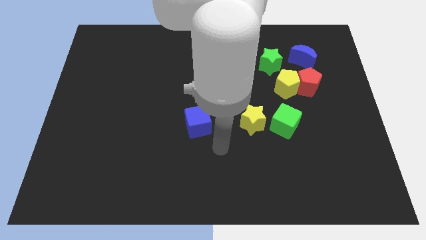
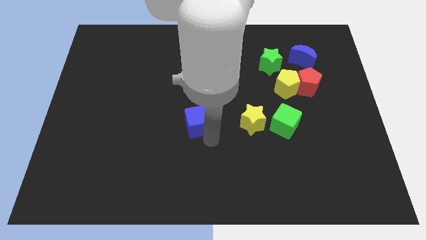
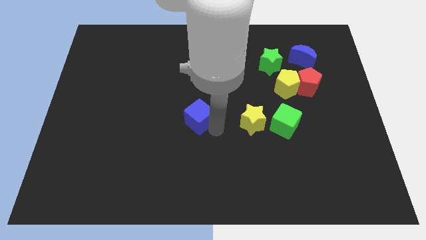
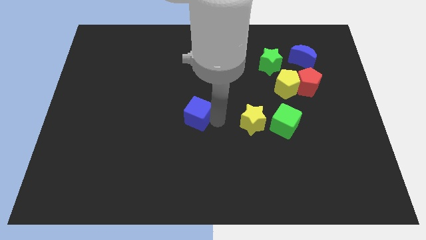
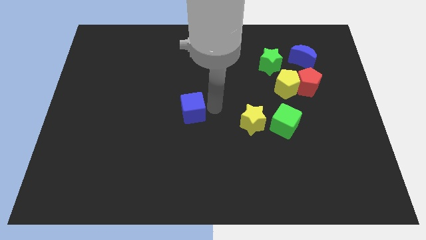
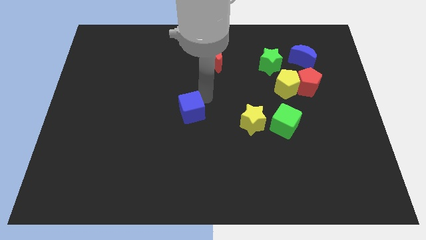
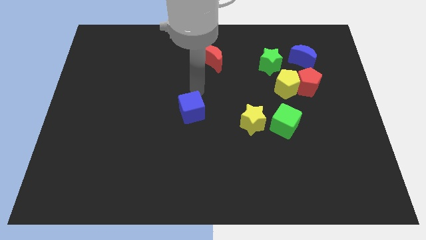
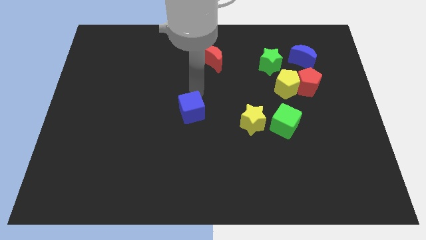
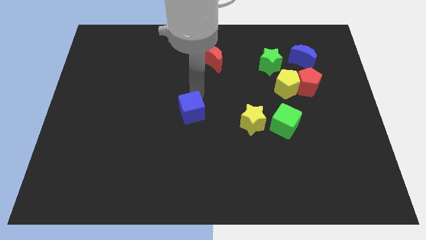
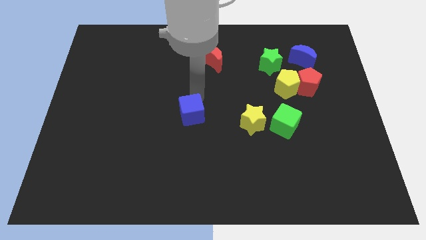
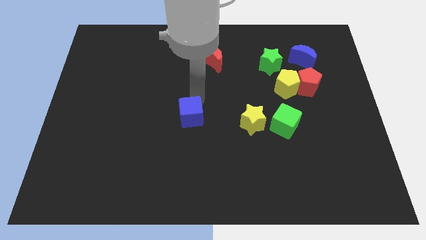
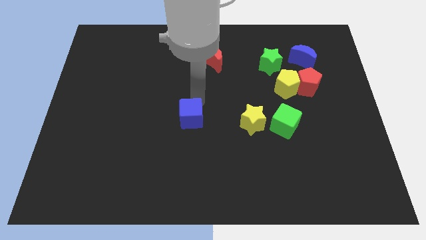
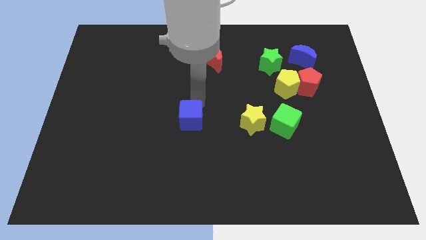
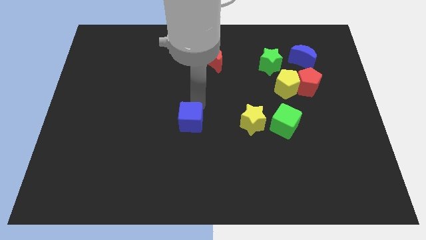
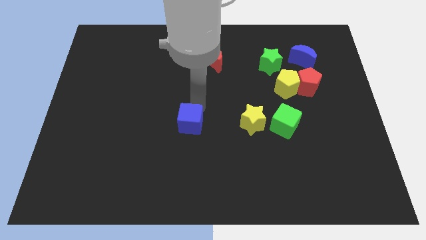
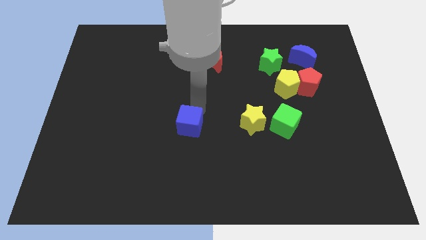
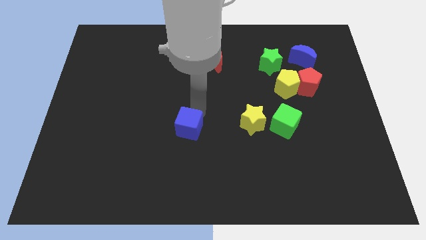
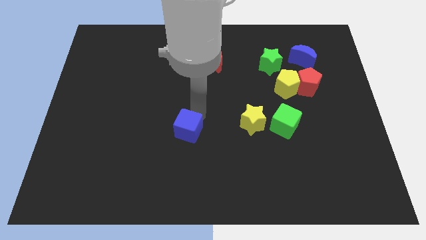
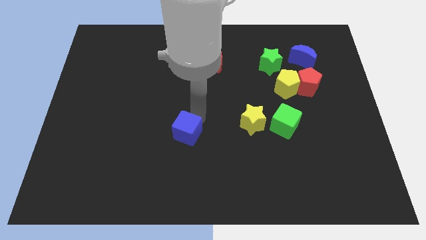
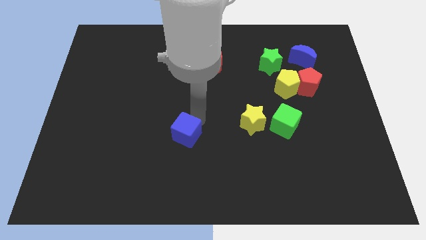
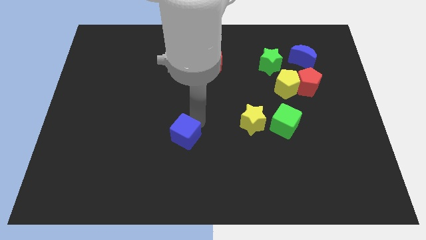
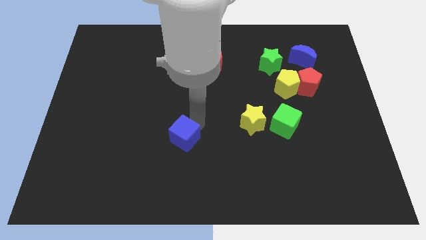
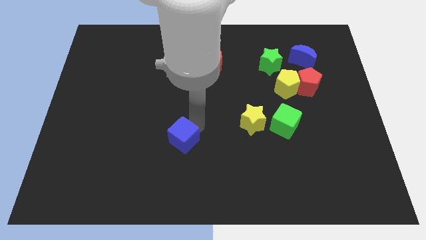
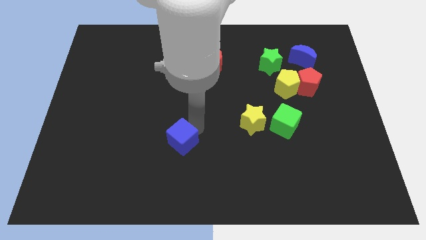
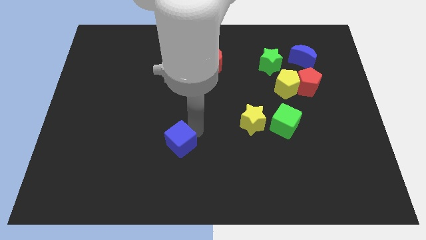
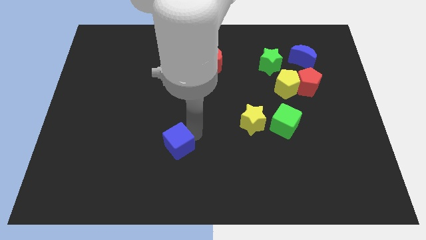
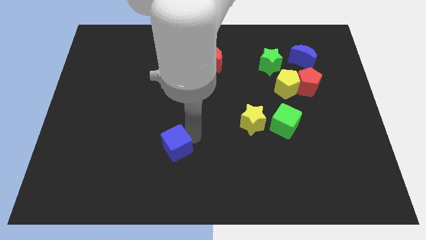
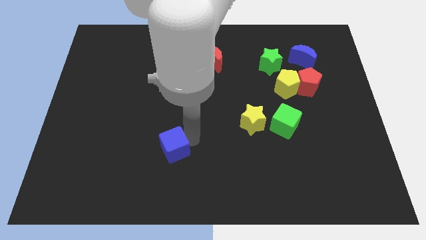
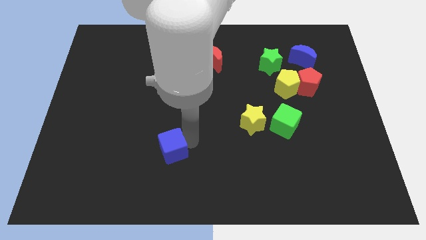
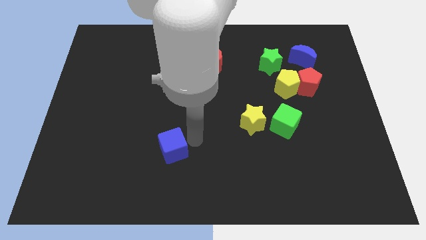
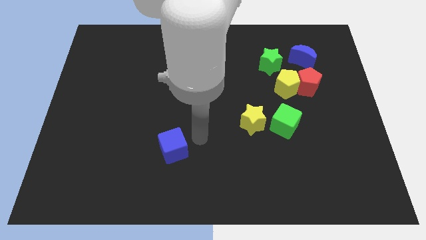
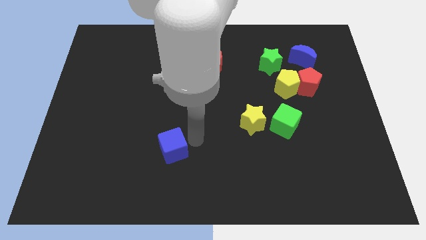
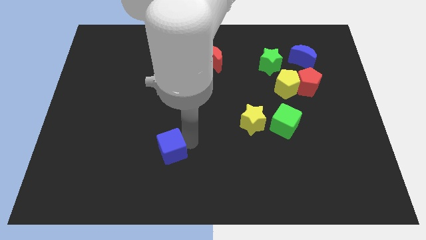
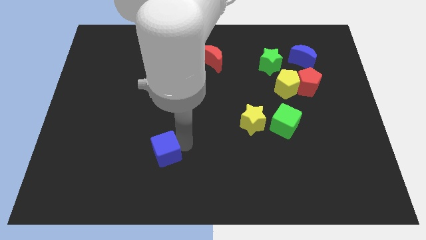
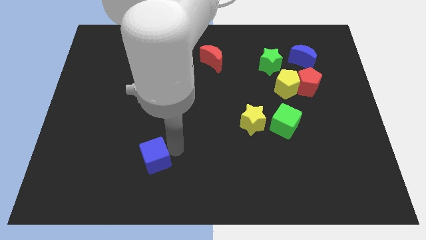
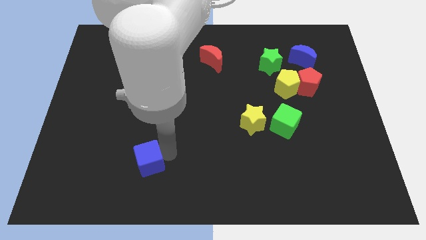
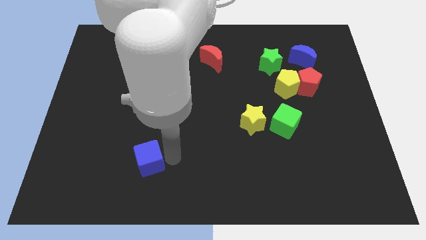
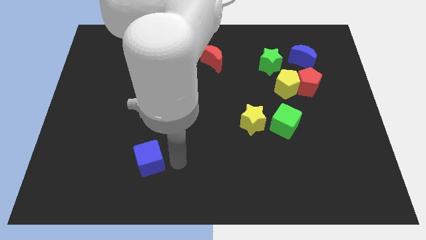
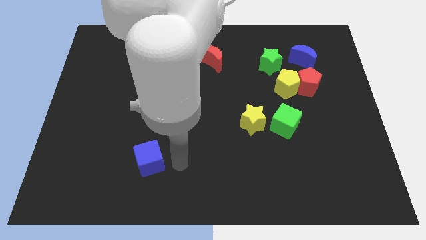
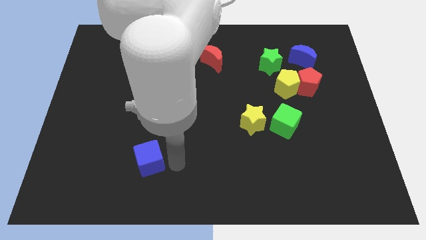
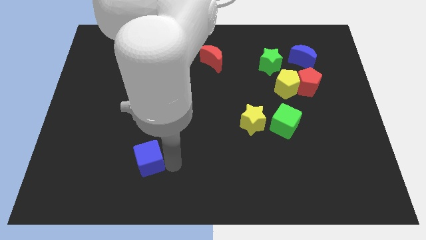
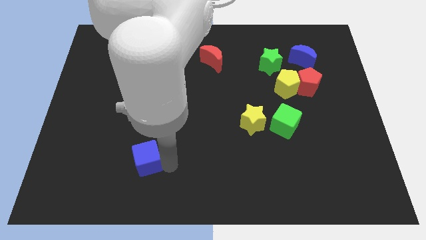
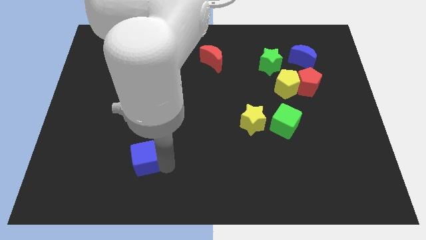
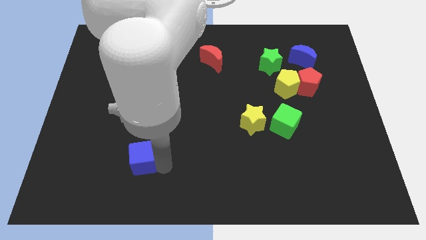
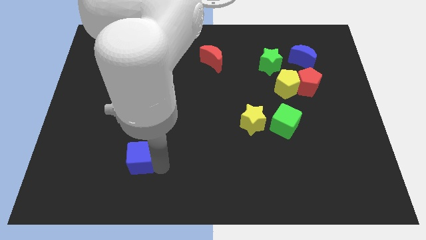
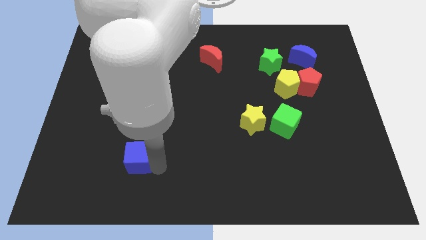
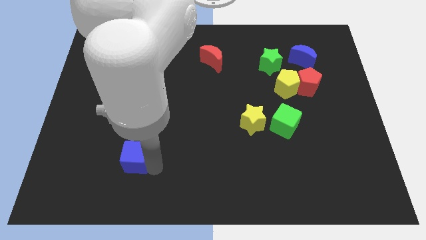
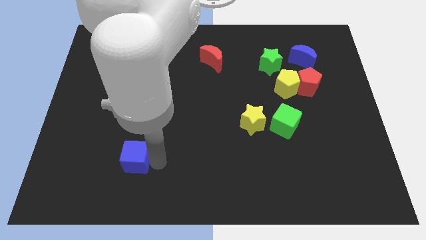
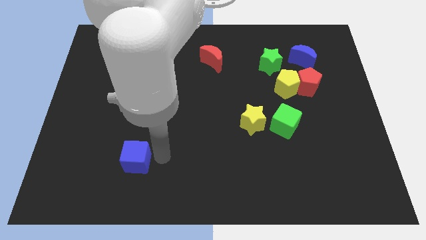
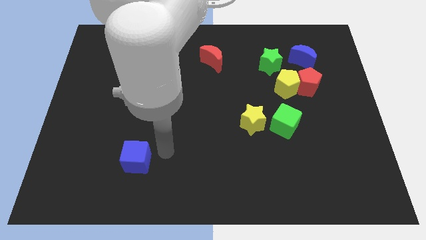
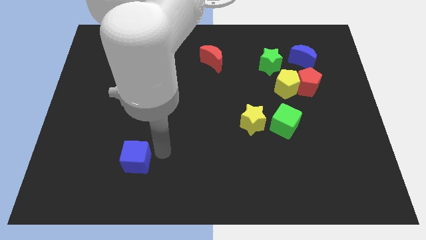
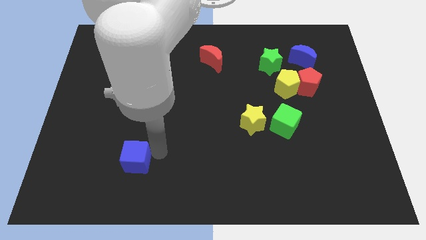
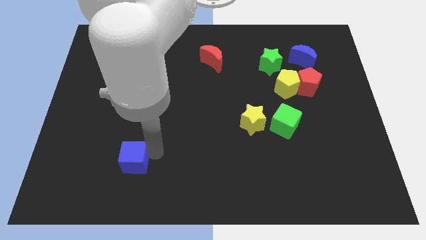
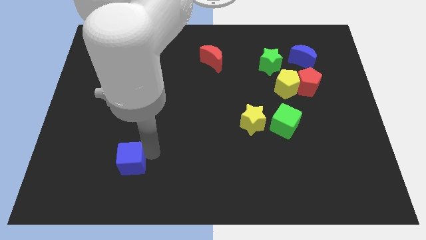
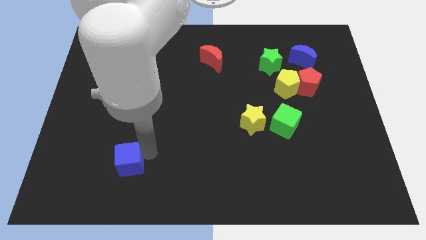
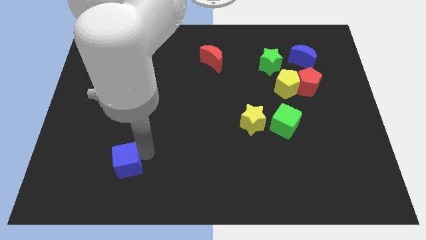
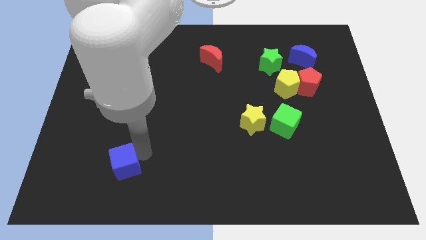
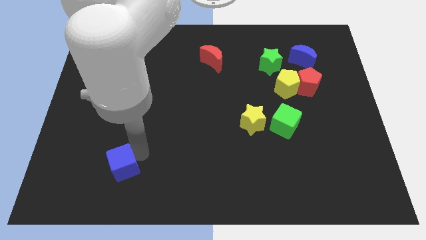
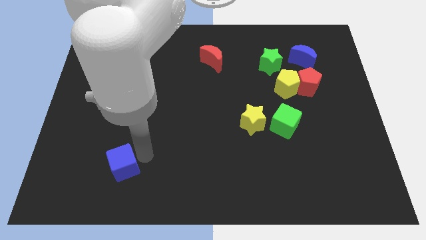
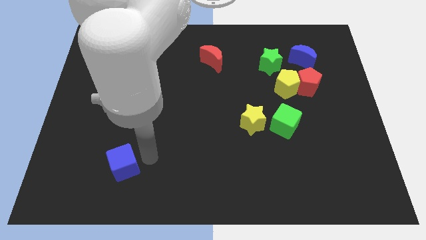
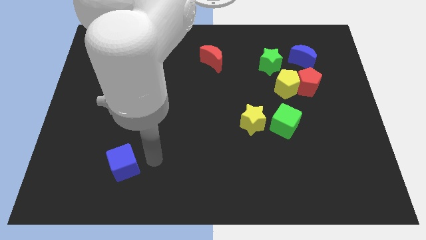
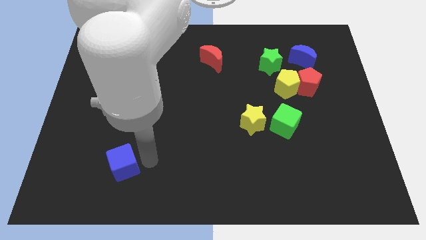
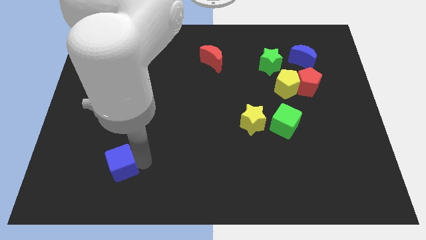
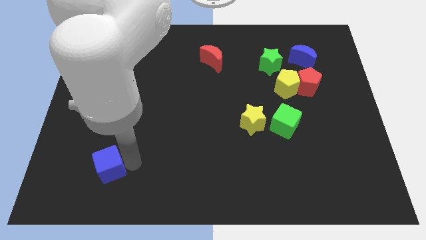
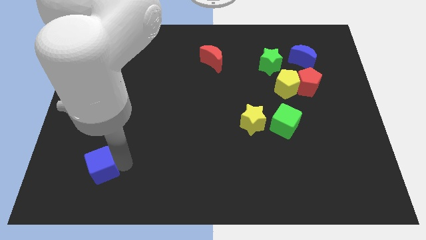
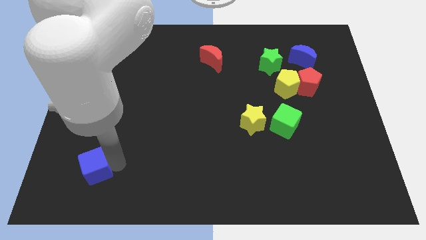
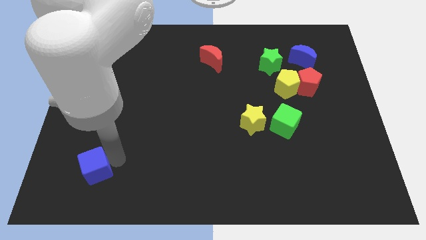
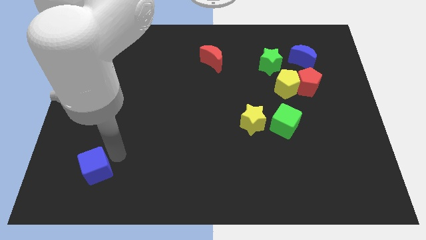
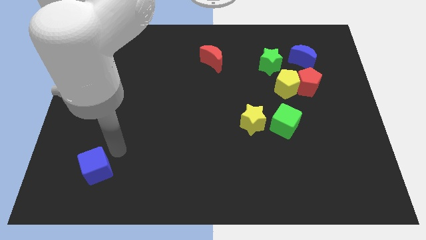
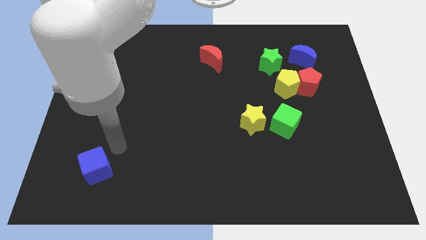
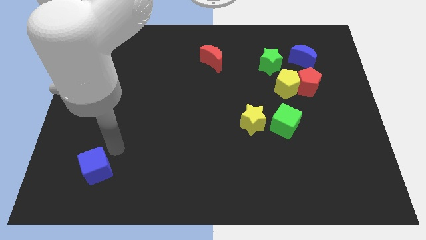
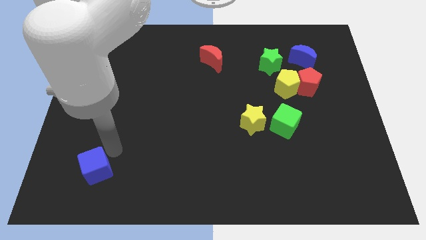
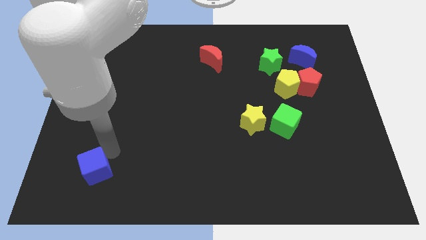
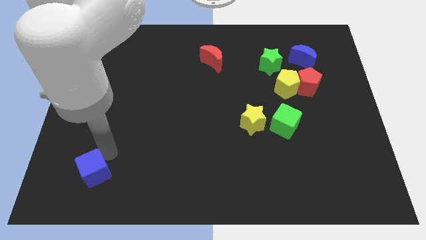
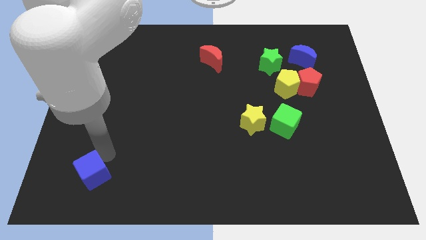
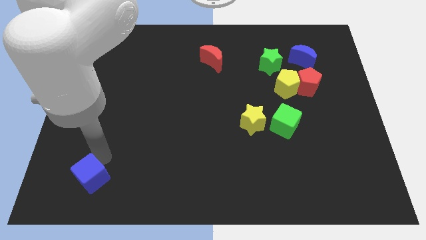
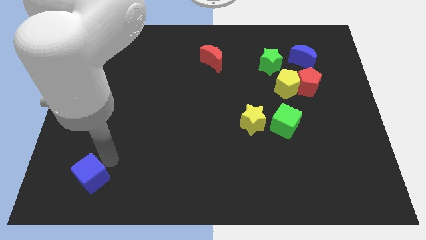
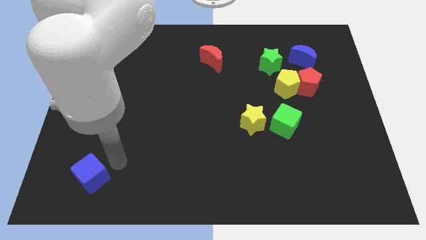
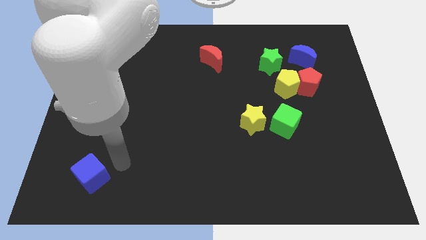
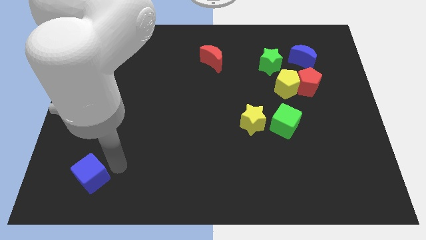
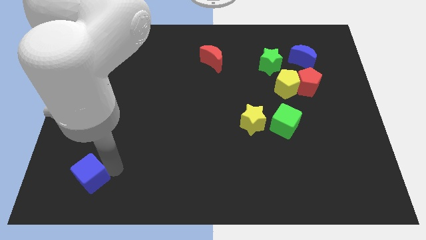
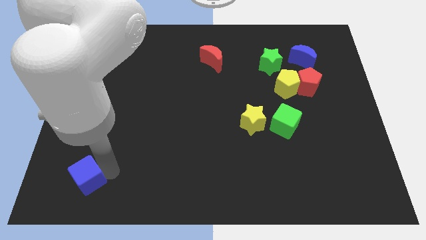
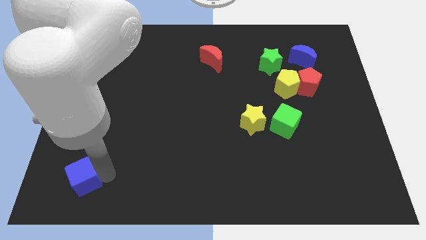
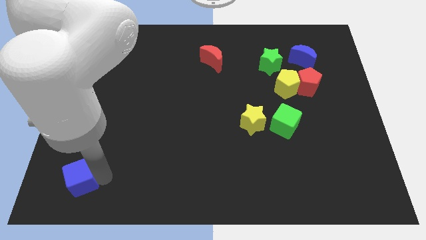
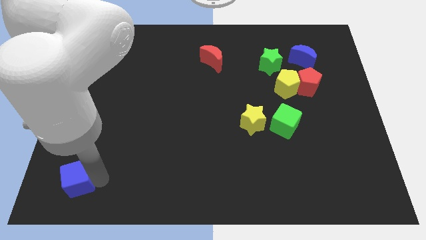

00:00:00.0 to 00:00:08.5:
put the blue cube to the lower left corner
